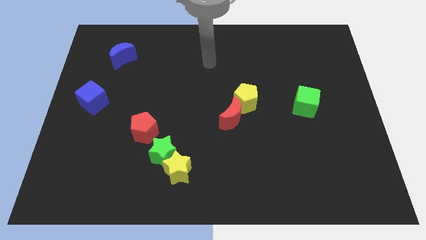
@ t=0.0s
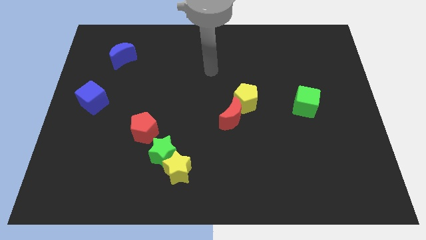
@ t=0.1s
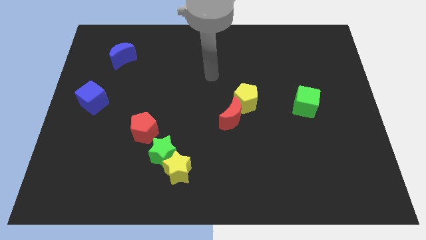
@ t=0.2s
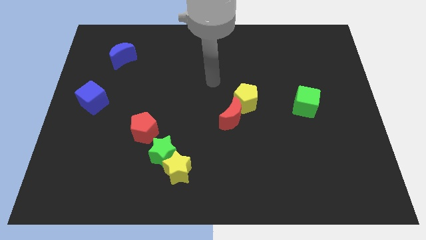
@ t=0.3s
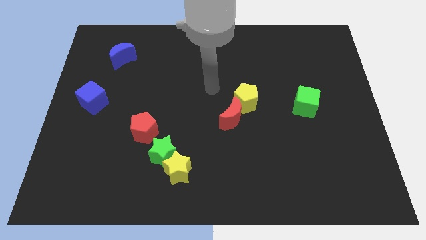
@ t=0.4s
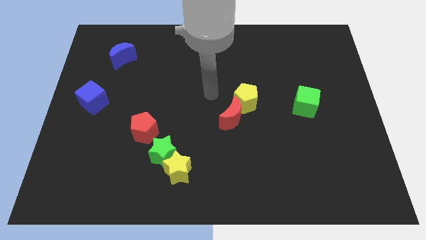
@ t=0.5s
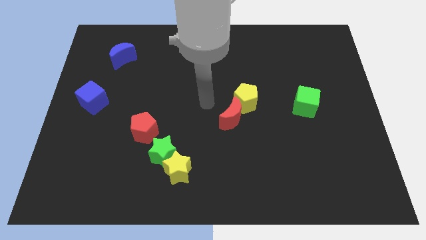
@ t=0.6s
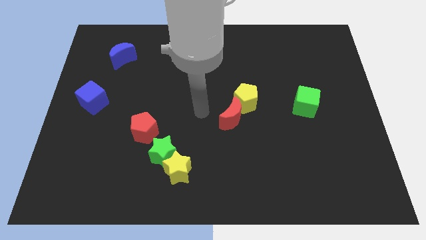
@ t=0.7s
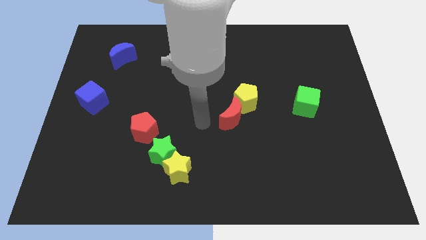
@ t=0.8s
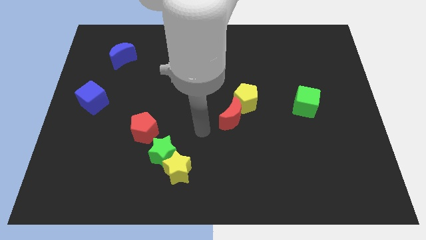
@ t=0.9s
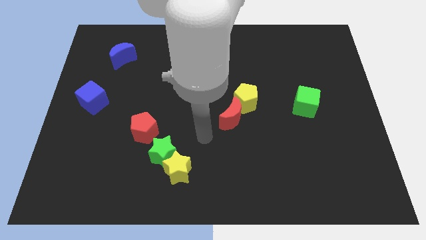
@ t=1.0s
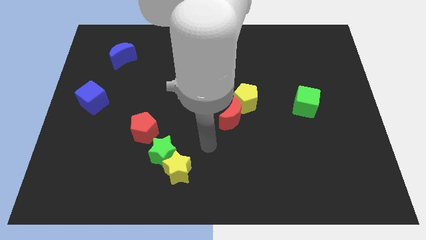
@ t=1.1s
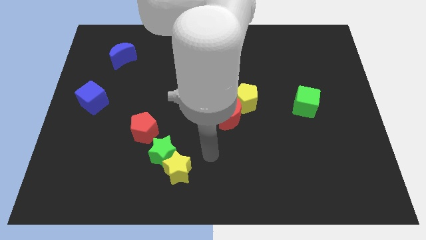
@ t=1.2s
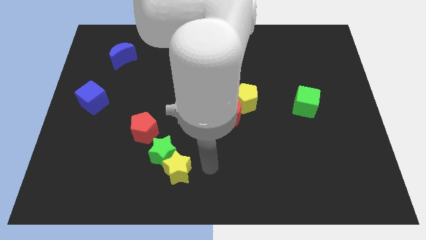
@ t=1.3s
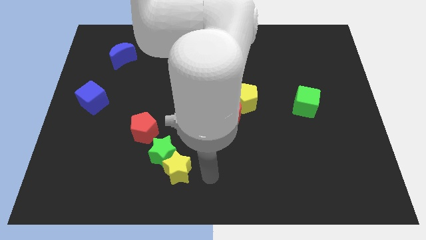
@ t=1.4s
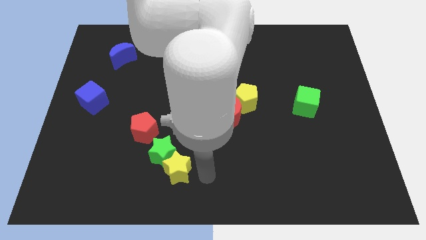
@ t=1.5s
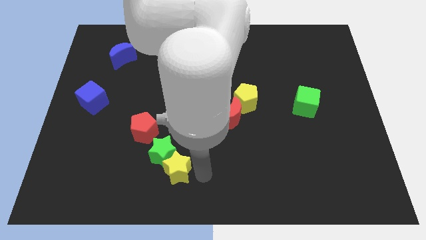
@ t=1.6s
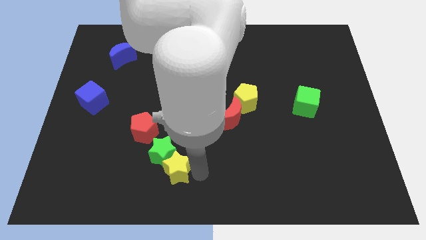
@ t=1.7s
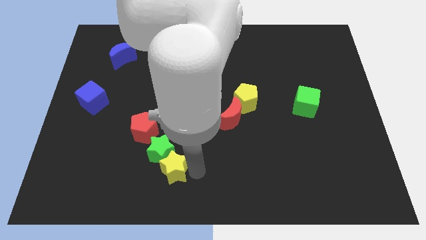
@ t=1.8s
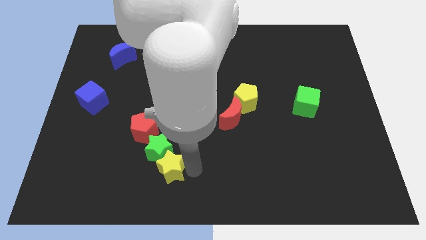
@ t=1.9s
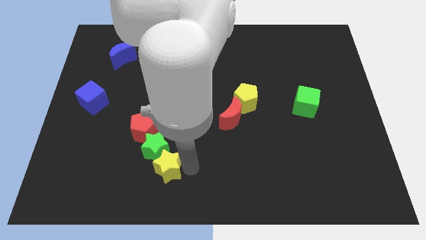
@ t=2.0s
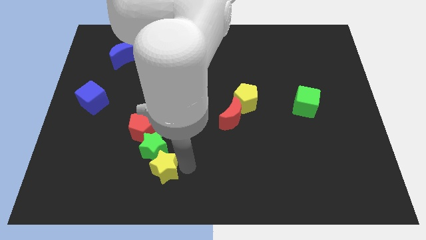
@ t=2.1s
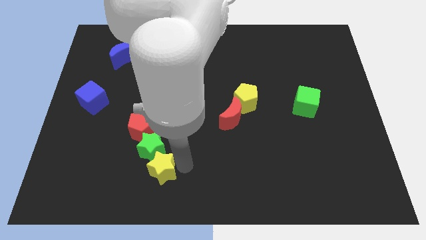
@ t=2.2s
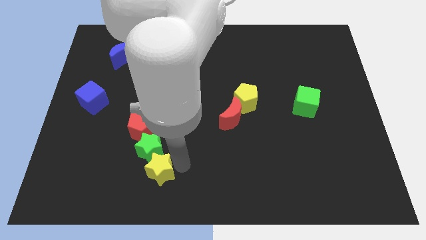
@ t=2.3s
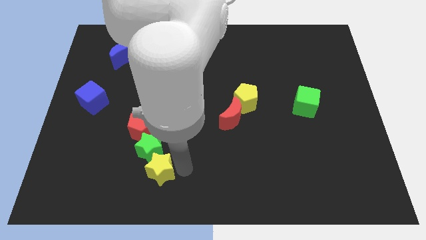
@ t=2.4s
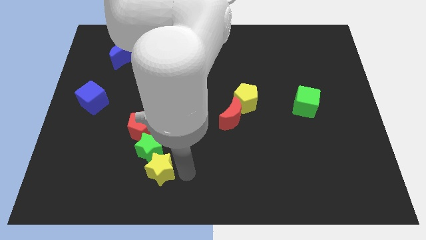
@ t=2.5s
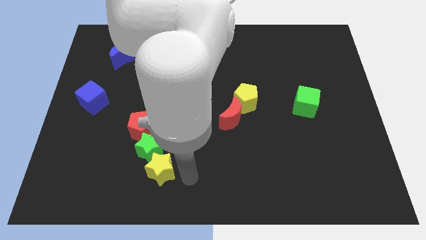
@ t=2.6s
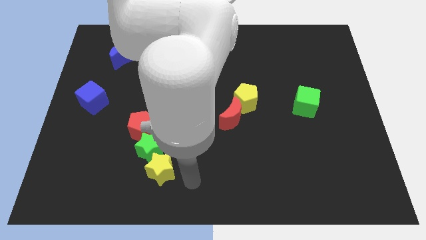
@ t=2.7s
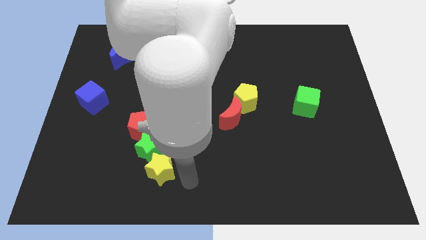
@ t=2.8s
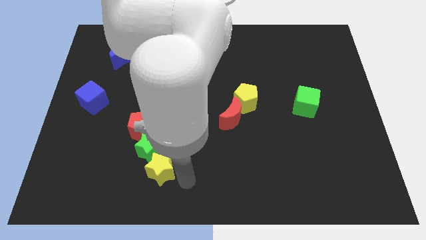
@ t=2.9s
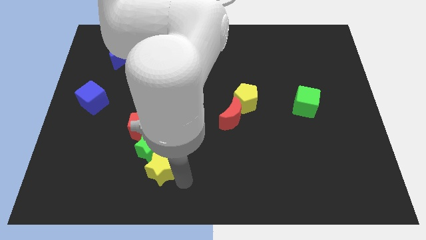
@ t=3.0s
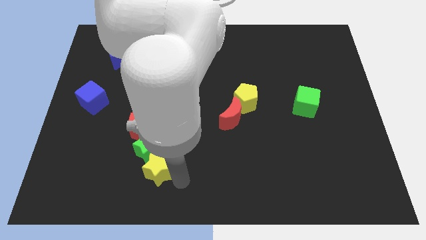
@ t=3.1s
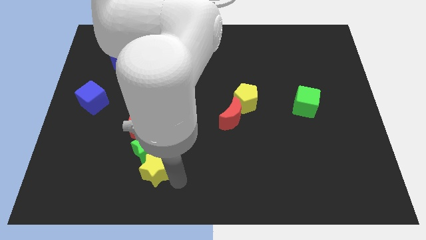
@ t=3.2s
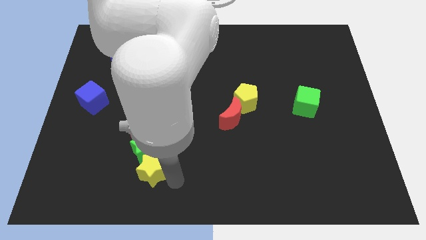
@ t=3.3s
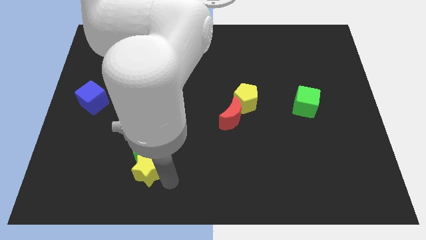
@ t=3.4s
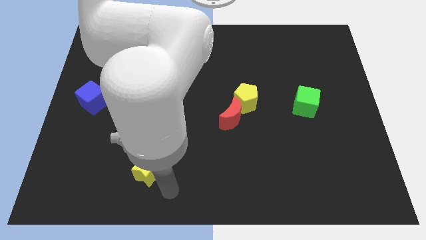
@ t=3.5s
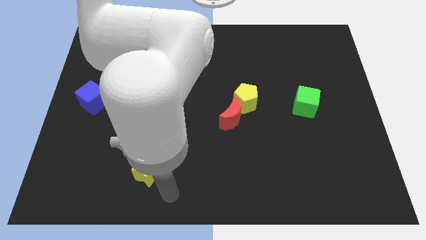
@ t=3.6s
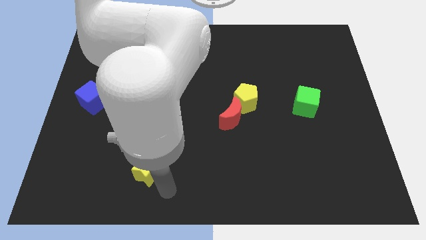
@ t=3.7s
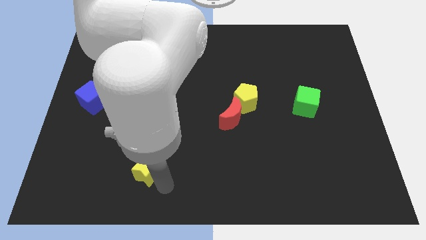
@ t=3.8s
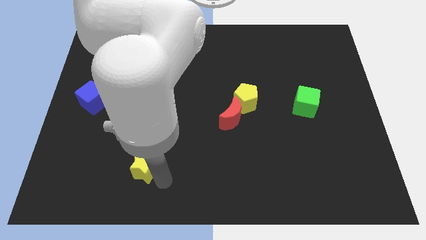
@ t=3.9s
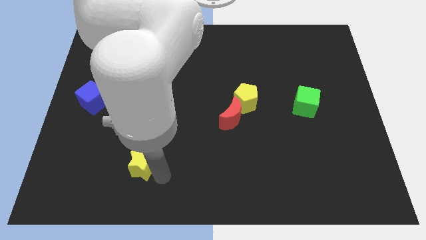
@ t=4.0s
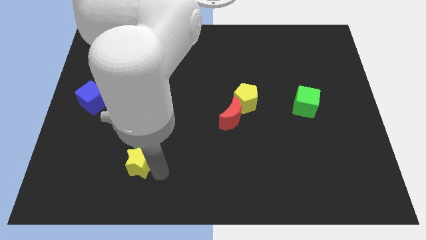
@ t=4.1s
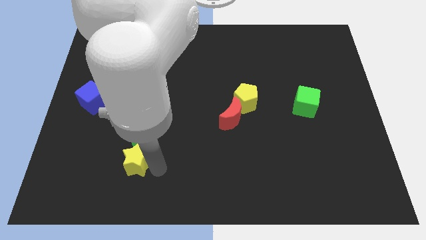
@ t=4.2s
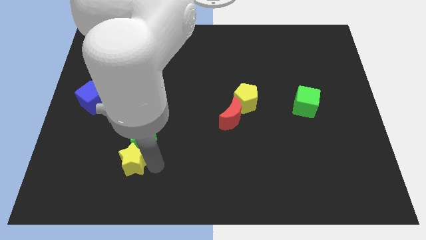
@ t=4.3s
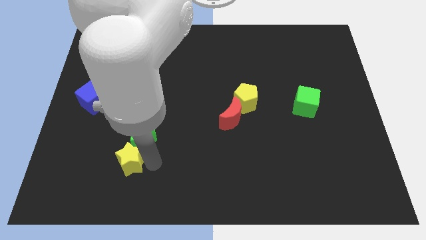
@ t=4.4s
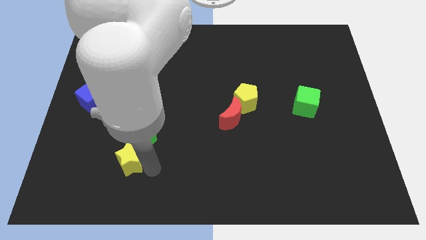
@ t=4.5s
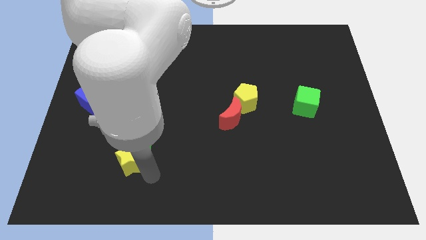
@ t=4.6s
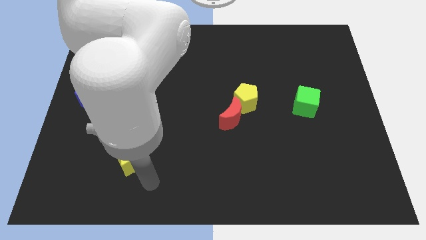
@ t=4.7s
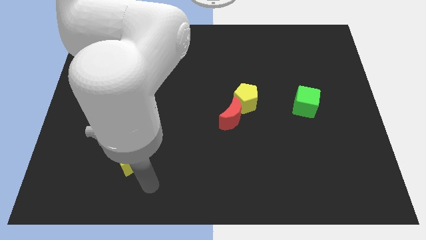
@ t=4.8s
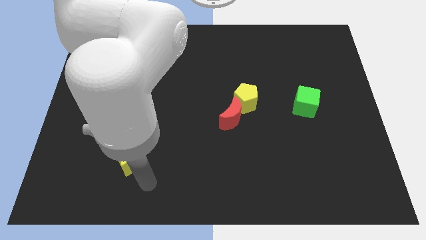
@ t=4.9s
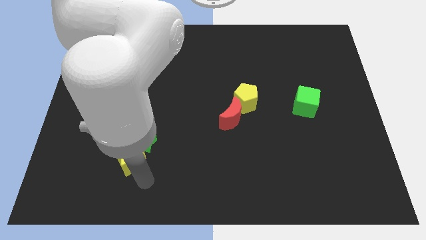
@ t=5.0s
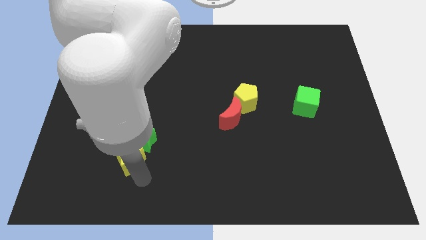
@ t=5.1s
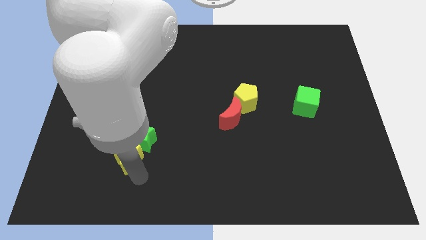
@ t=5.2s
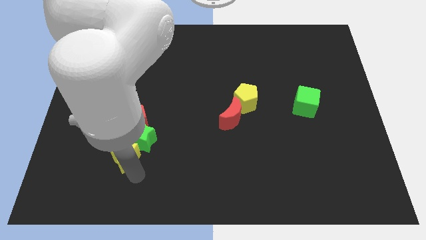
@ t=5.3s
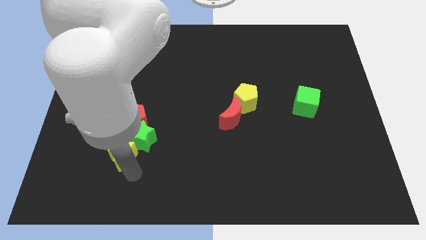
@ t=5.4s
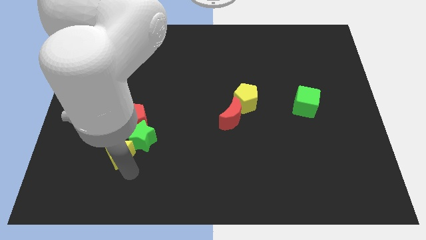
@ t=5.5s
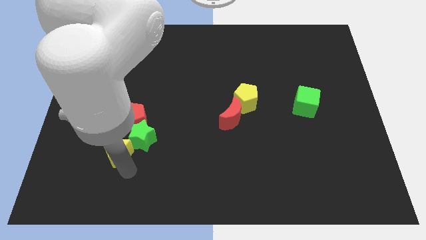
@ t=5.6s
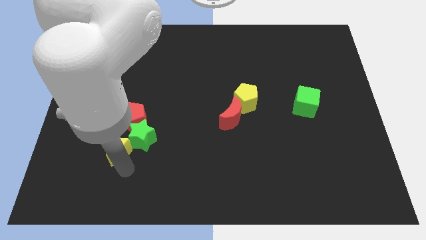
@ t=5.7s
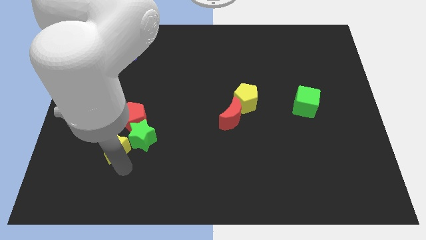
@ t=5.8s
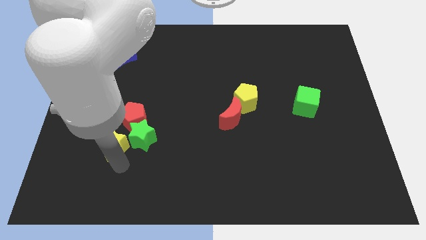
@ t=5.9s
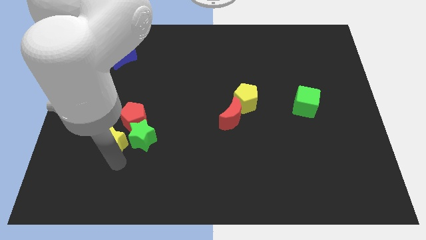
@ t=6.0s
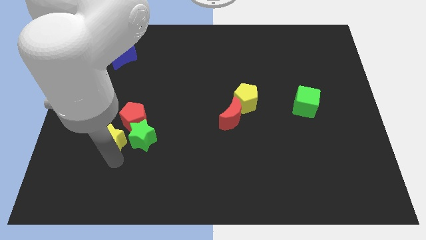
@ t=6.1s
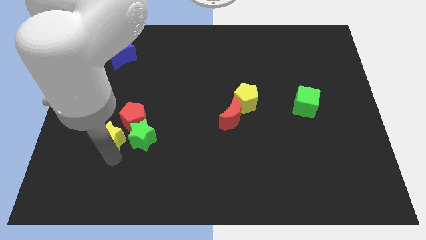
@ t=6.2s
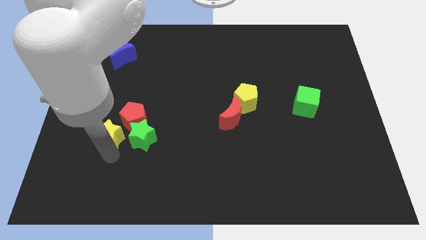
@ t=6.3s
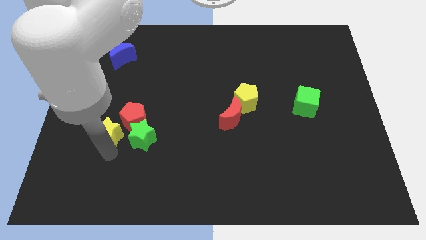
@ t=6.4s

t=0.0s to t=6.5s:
move the yellow star to the bottom right side of the blue cube
